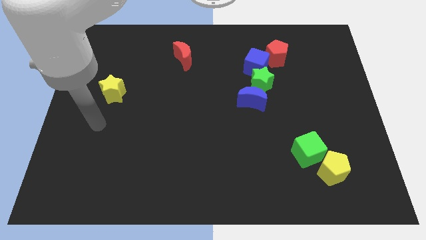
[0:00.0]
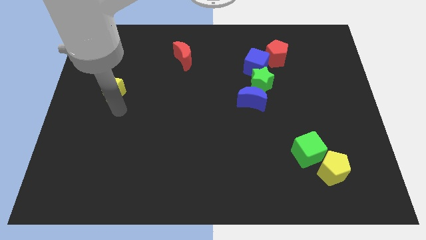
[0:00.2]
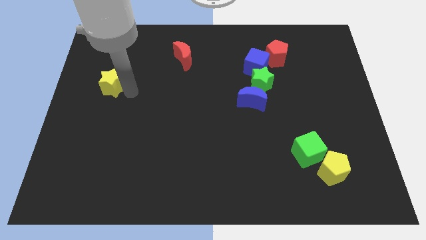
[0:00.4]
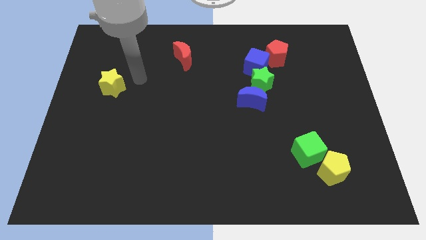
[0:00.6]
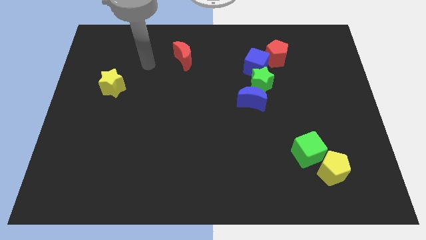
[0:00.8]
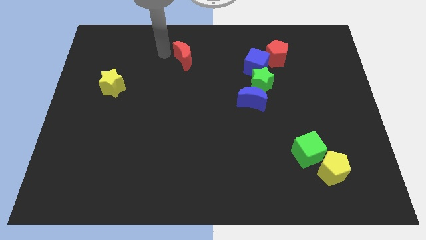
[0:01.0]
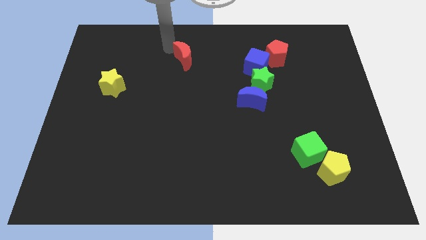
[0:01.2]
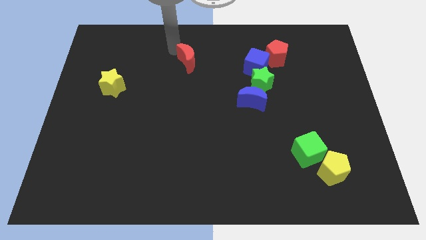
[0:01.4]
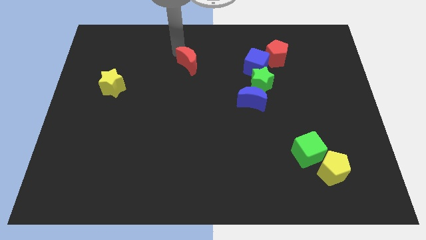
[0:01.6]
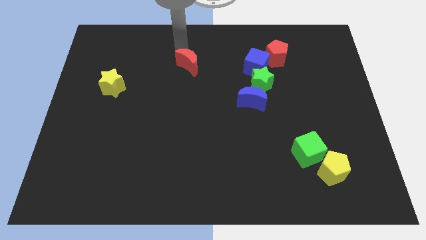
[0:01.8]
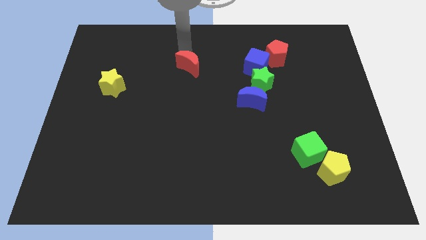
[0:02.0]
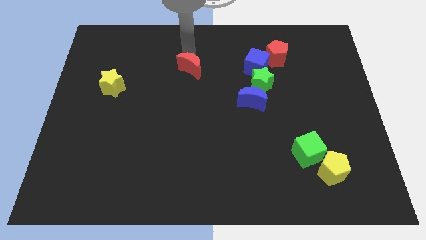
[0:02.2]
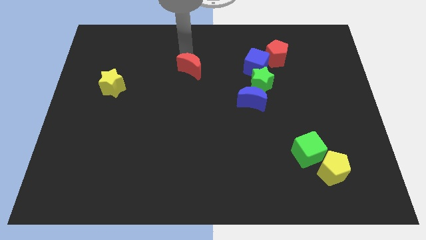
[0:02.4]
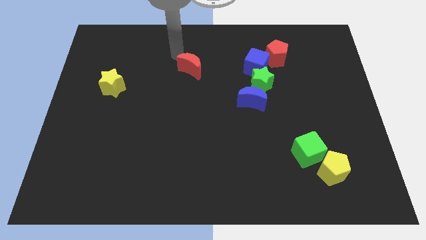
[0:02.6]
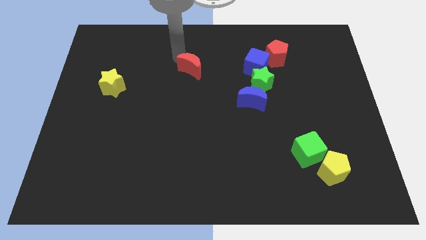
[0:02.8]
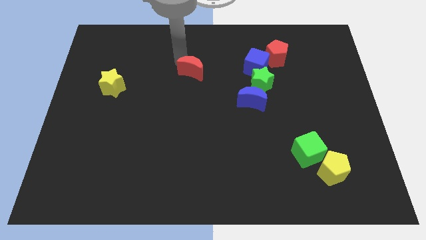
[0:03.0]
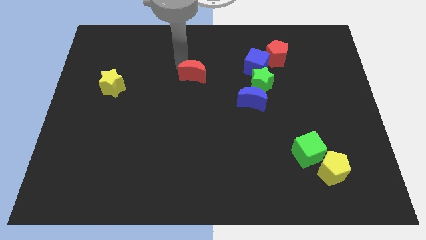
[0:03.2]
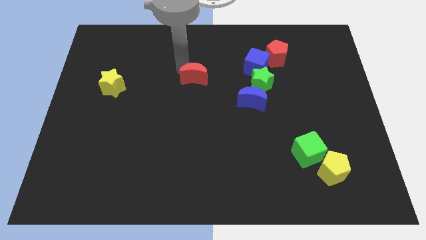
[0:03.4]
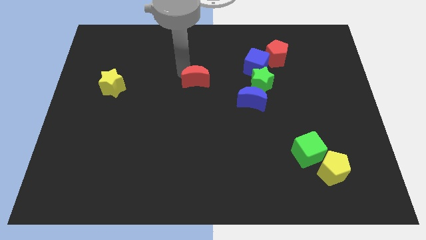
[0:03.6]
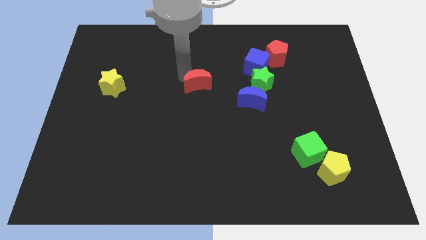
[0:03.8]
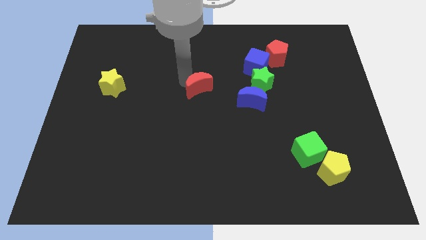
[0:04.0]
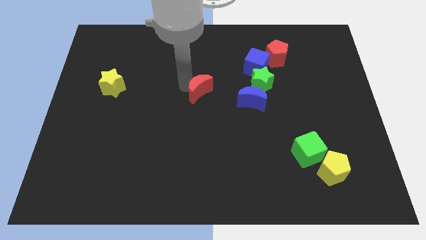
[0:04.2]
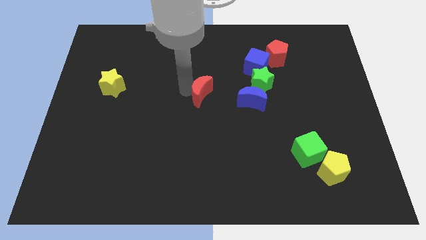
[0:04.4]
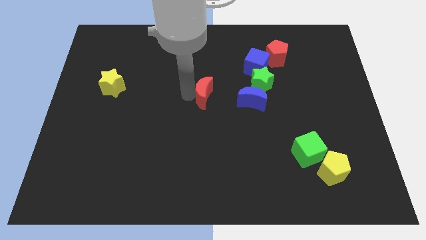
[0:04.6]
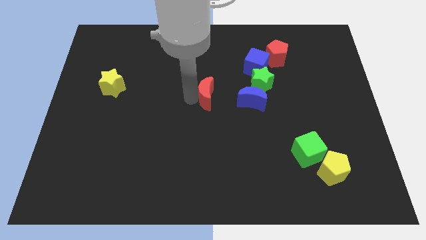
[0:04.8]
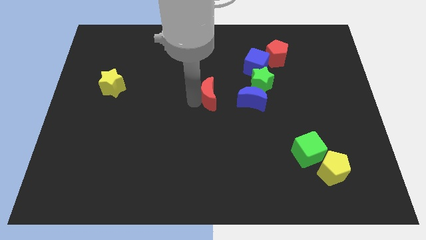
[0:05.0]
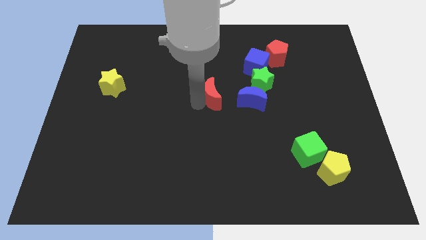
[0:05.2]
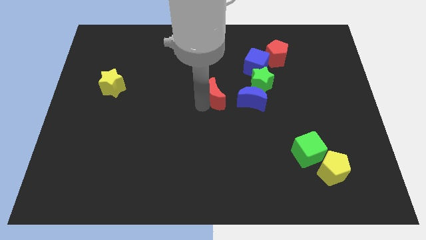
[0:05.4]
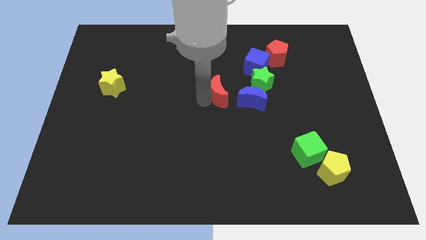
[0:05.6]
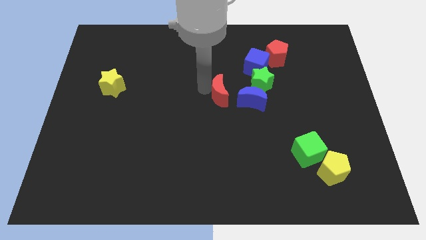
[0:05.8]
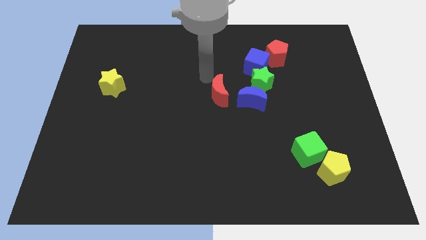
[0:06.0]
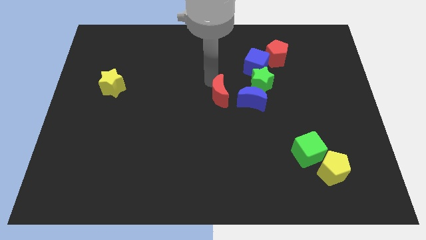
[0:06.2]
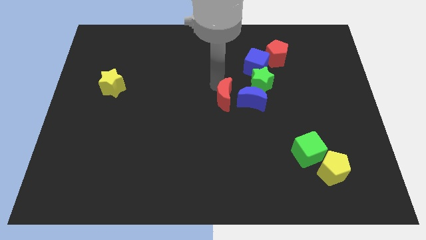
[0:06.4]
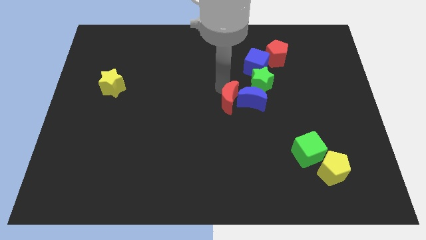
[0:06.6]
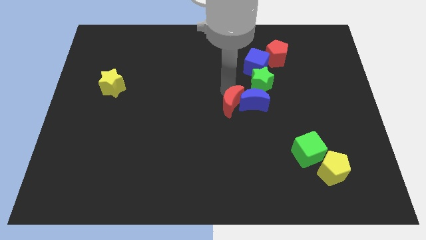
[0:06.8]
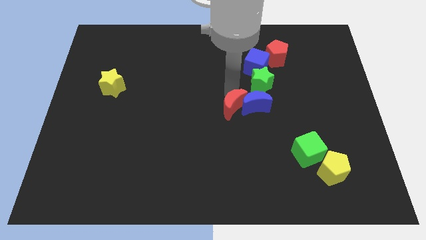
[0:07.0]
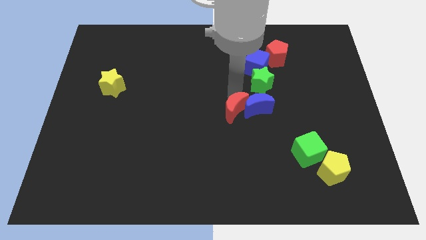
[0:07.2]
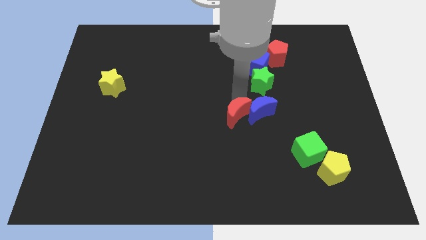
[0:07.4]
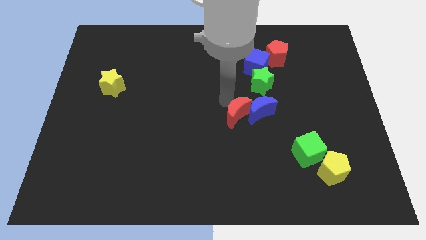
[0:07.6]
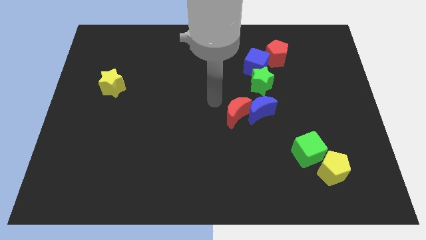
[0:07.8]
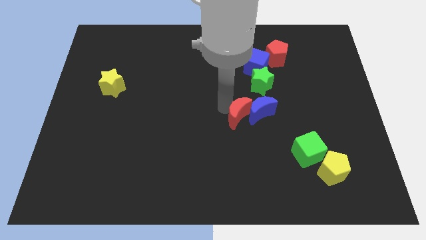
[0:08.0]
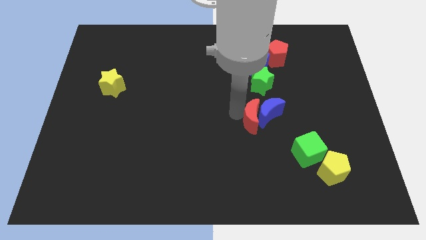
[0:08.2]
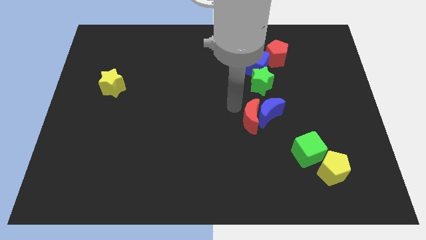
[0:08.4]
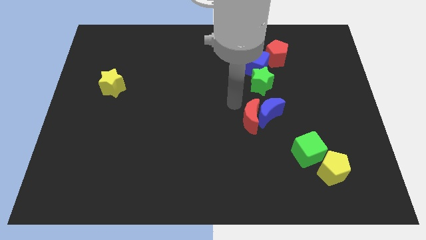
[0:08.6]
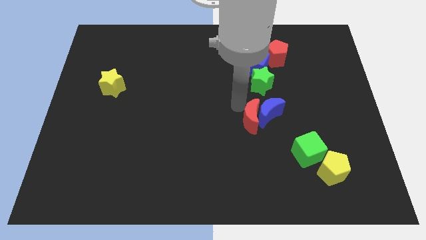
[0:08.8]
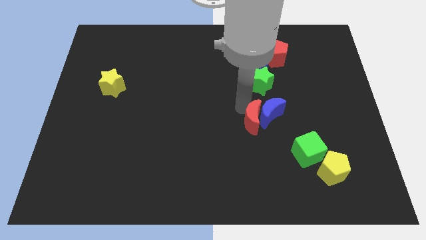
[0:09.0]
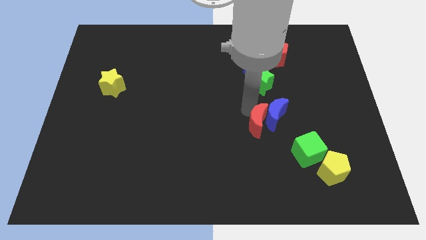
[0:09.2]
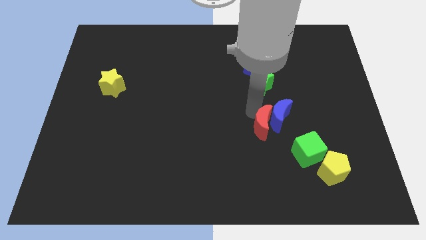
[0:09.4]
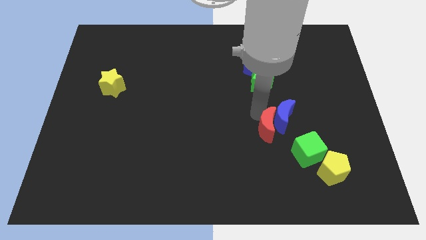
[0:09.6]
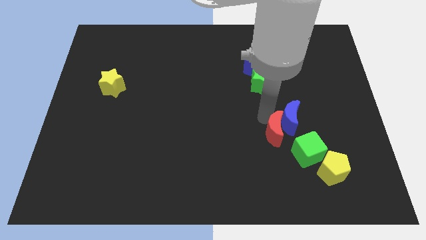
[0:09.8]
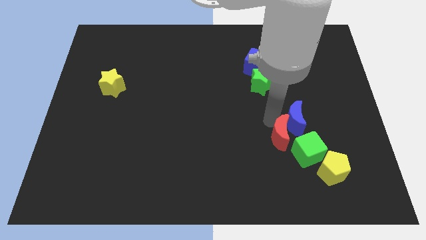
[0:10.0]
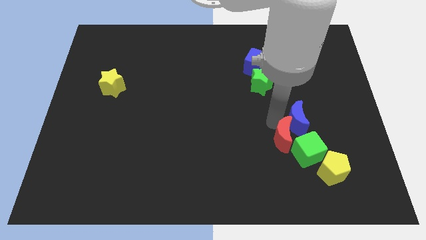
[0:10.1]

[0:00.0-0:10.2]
slide the red moon diagonally up and to the left of the yellow pentagon

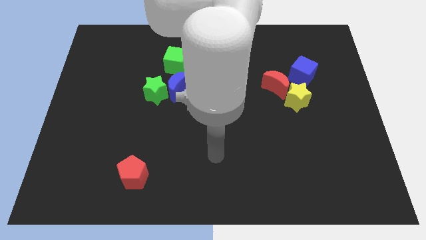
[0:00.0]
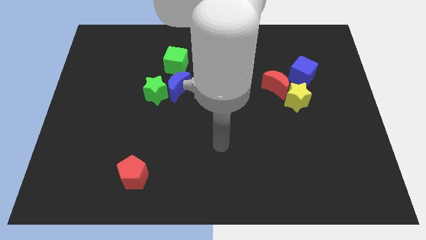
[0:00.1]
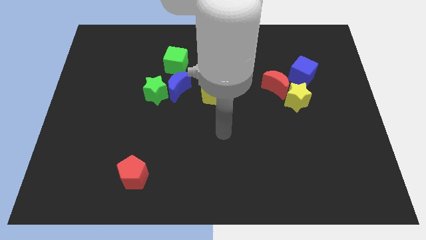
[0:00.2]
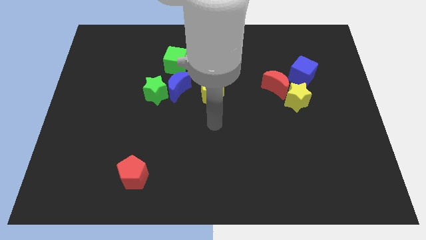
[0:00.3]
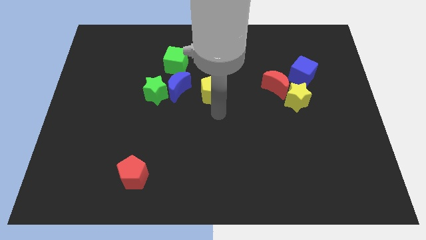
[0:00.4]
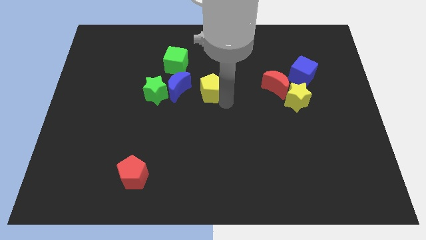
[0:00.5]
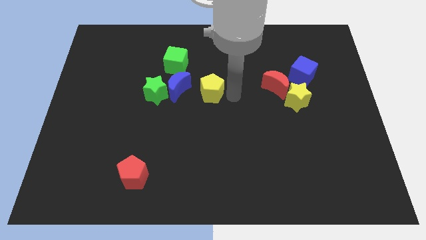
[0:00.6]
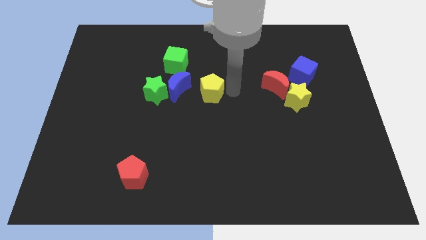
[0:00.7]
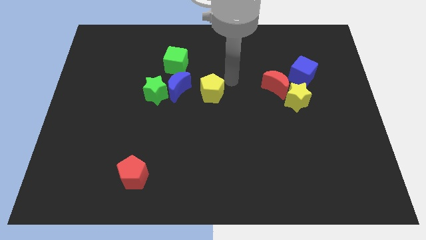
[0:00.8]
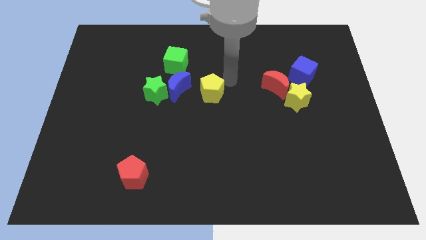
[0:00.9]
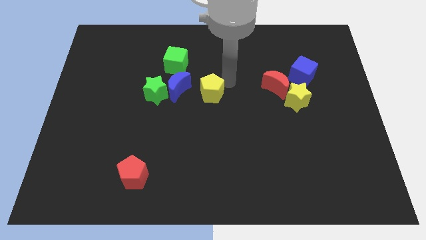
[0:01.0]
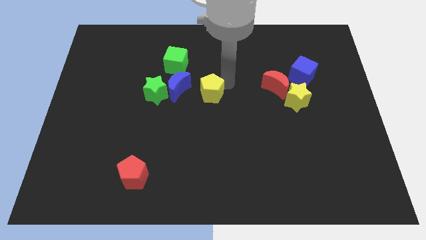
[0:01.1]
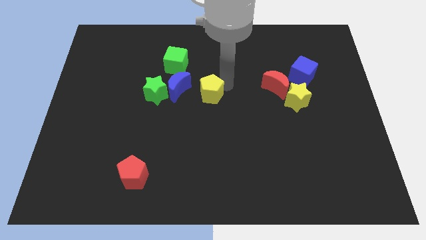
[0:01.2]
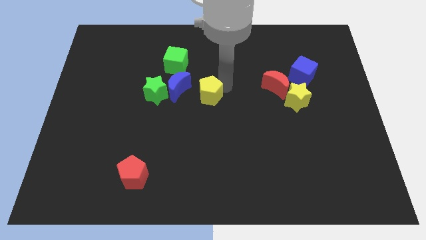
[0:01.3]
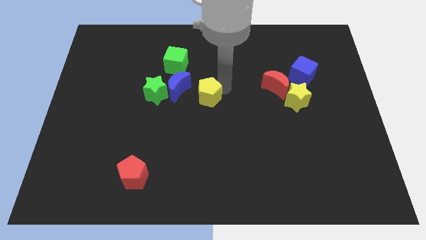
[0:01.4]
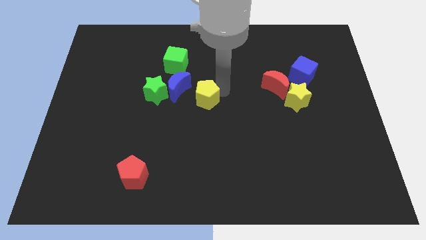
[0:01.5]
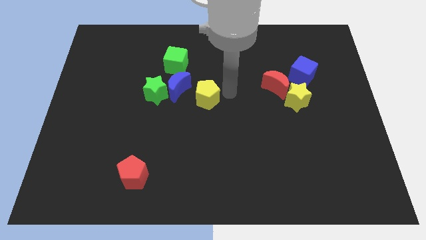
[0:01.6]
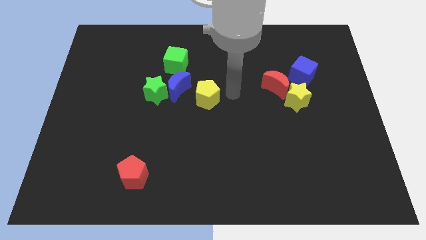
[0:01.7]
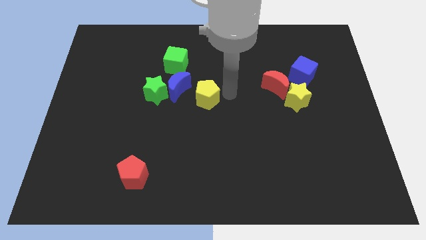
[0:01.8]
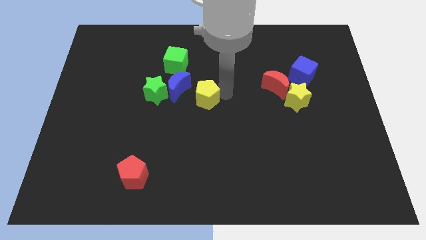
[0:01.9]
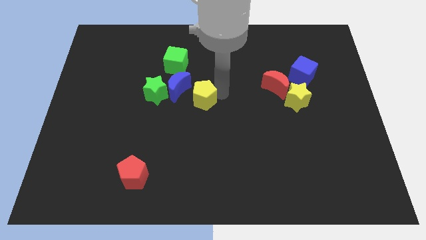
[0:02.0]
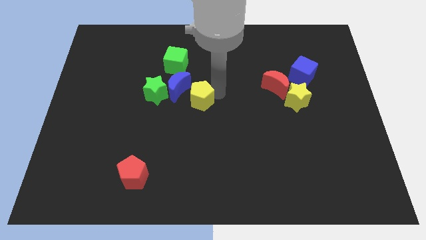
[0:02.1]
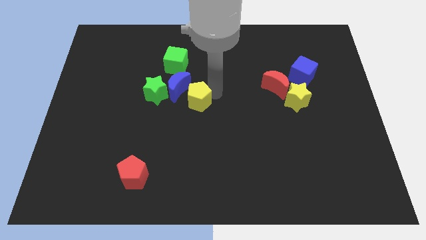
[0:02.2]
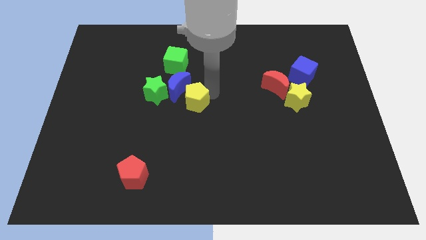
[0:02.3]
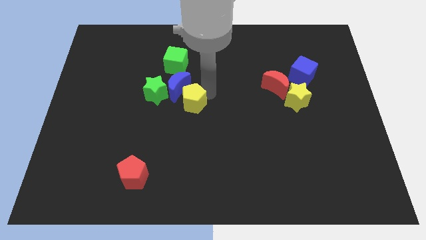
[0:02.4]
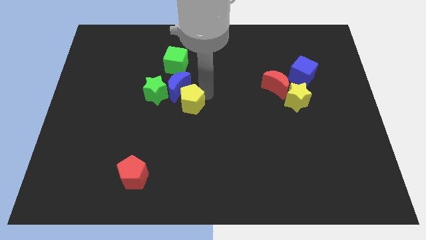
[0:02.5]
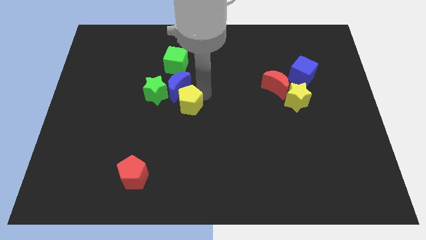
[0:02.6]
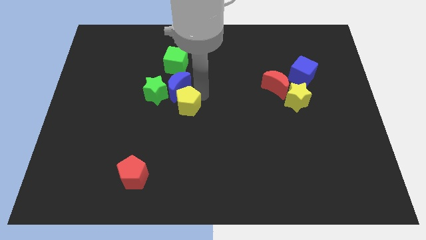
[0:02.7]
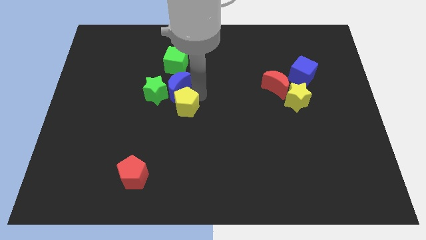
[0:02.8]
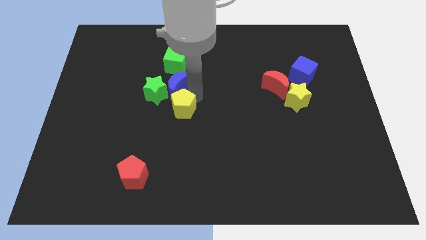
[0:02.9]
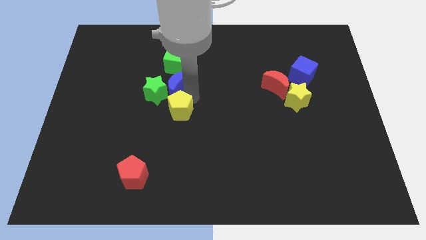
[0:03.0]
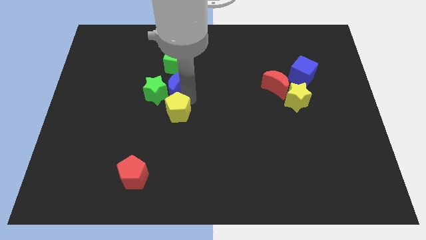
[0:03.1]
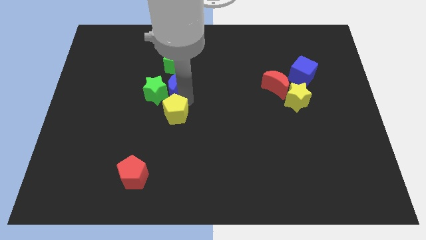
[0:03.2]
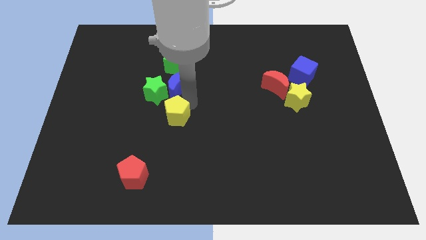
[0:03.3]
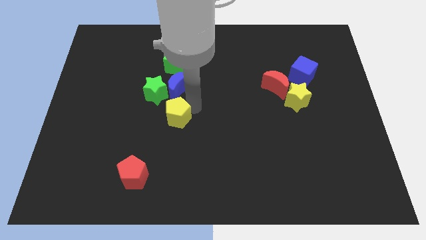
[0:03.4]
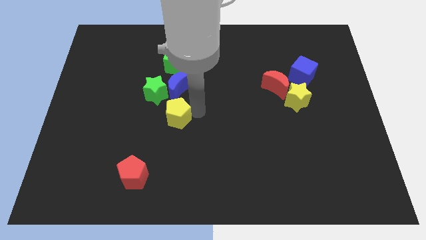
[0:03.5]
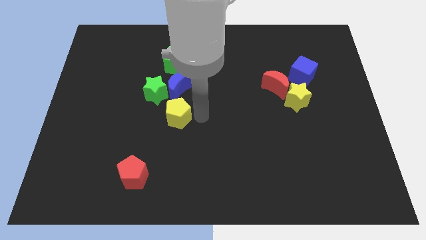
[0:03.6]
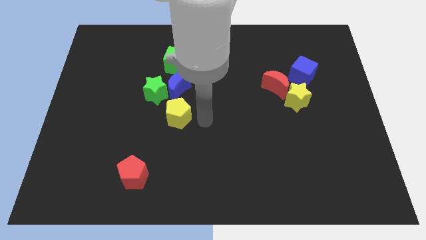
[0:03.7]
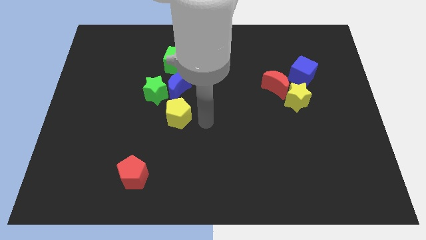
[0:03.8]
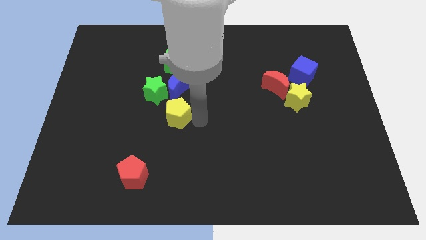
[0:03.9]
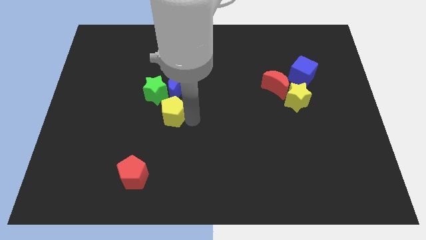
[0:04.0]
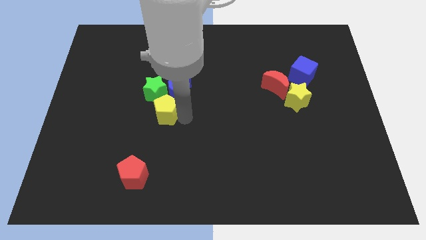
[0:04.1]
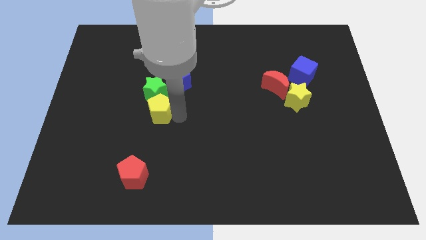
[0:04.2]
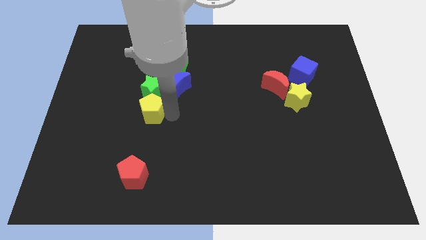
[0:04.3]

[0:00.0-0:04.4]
slide the yellow pentagon to the bottom left of the green star
